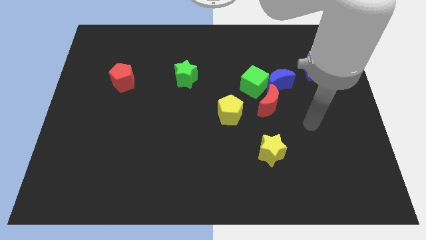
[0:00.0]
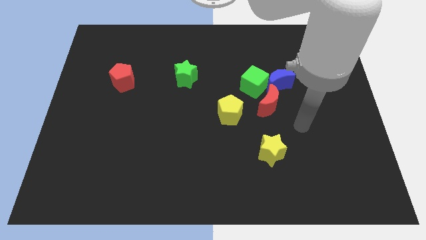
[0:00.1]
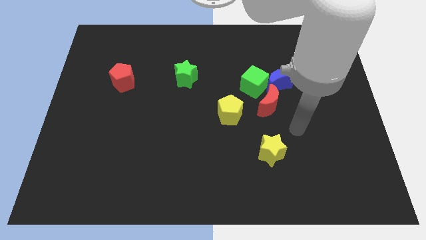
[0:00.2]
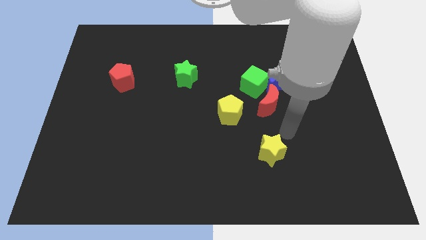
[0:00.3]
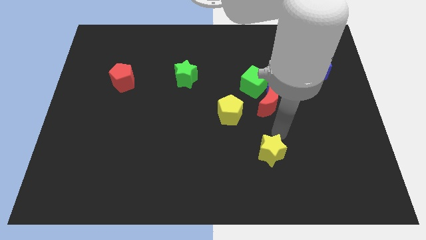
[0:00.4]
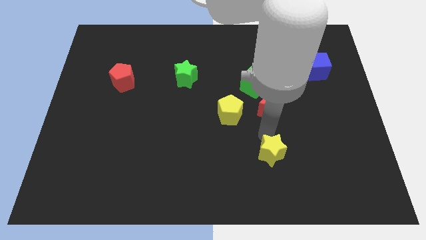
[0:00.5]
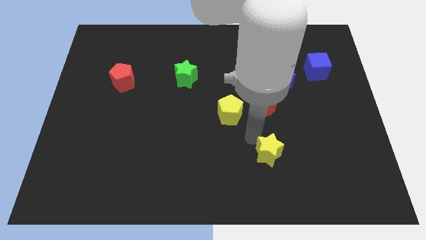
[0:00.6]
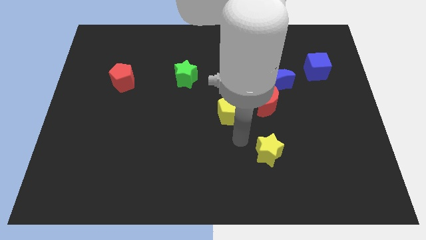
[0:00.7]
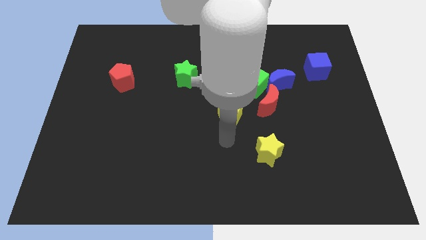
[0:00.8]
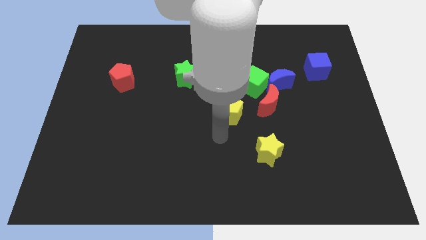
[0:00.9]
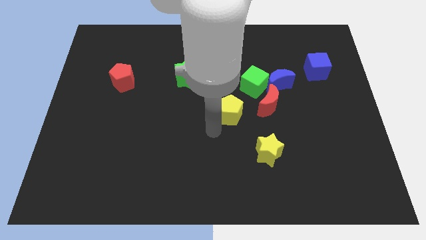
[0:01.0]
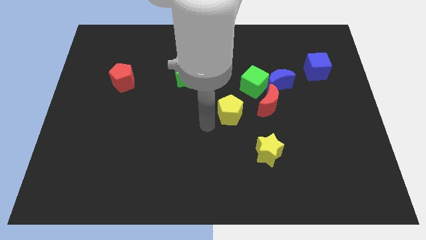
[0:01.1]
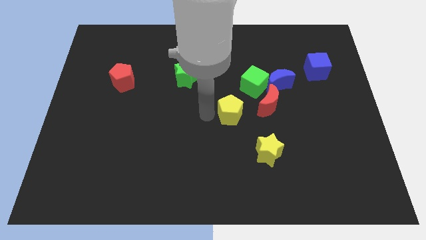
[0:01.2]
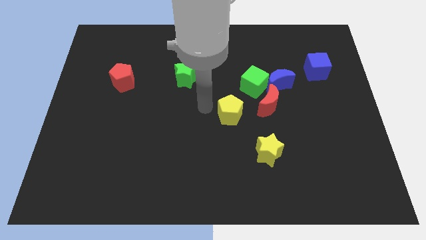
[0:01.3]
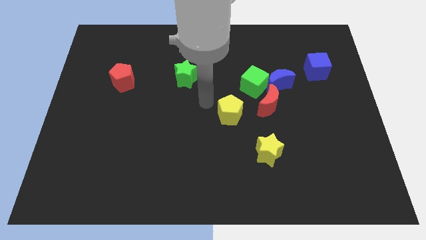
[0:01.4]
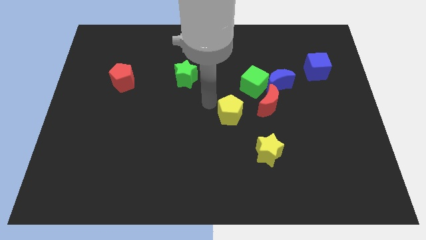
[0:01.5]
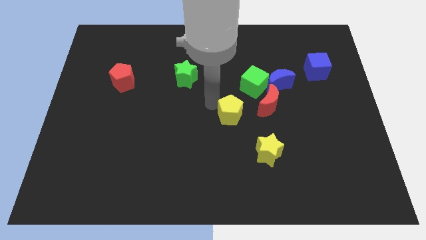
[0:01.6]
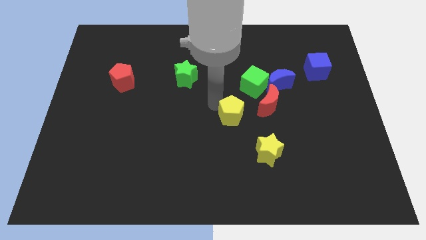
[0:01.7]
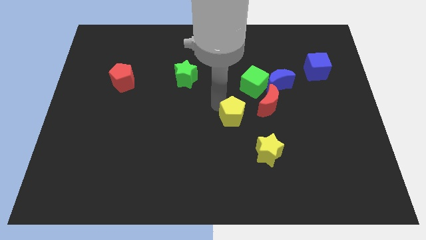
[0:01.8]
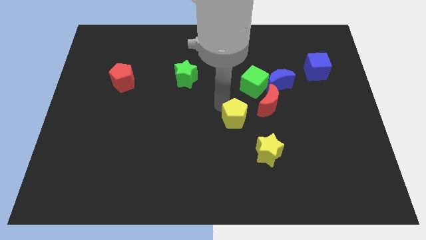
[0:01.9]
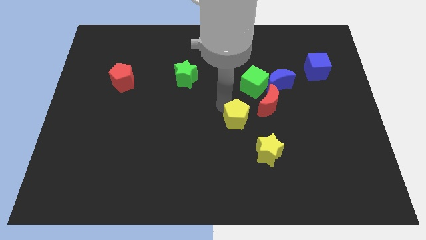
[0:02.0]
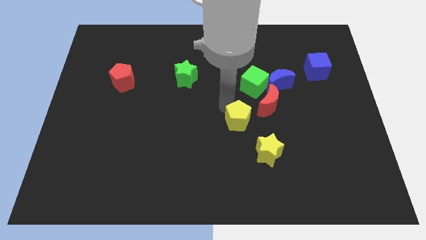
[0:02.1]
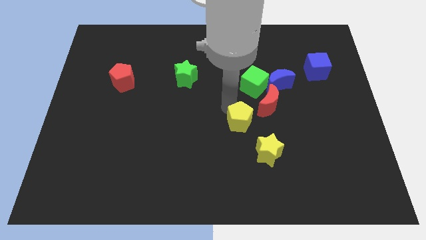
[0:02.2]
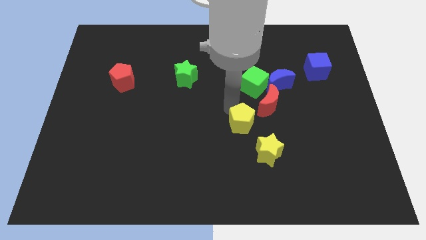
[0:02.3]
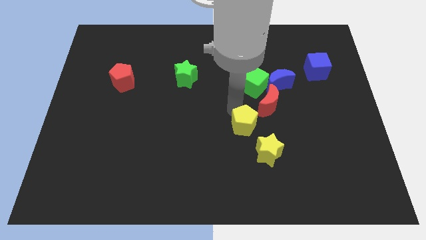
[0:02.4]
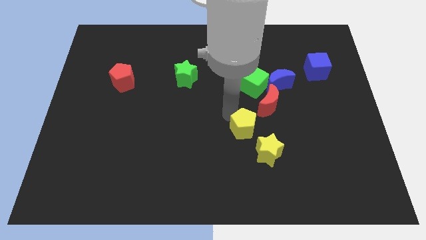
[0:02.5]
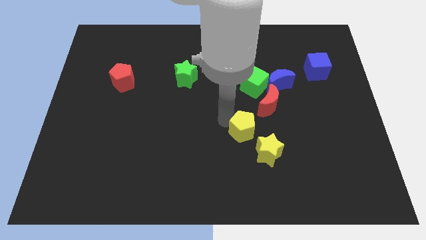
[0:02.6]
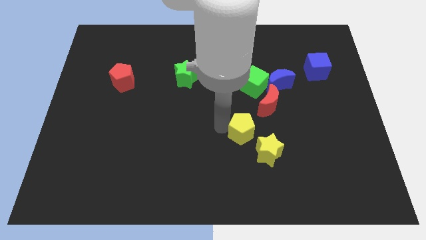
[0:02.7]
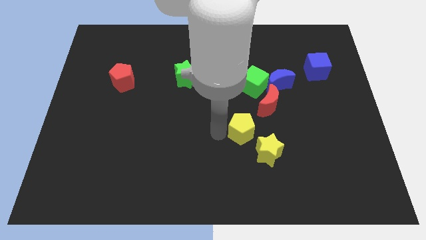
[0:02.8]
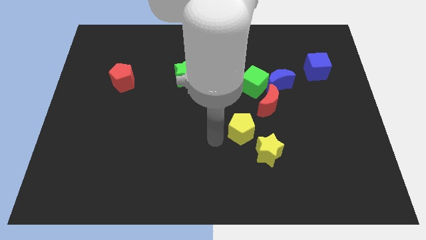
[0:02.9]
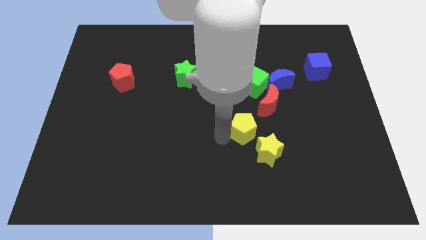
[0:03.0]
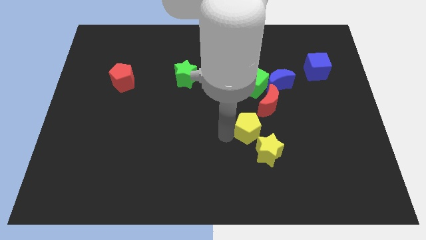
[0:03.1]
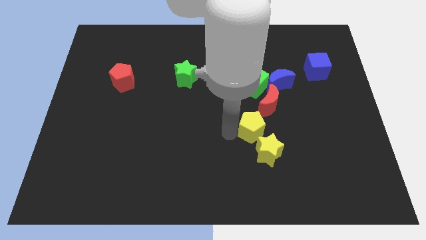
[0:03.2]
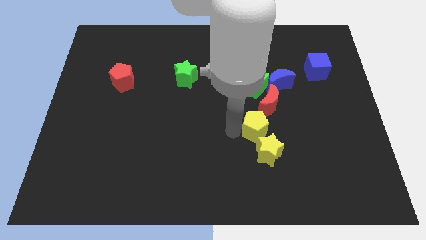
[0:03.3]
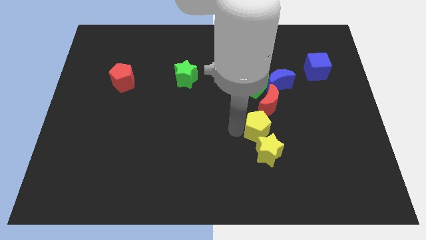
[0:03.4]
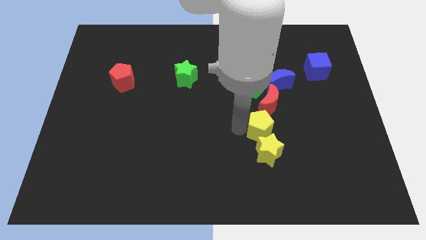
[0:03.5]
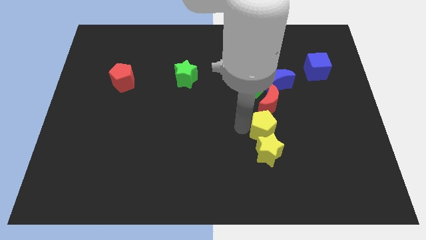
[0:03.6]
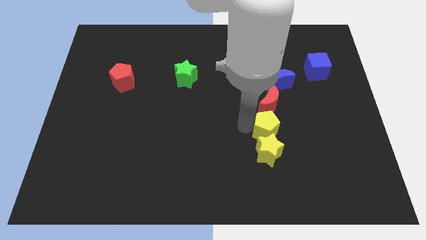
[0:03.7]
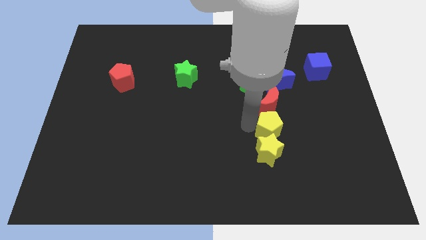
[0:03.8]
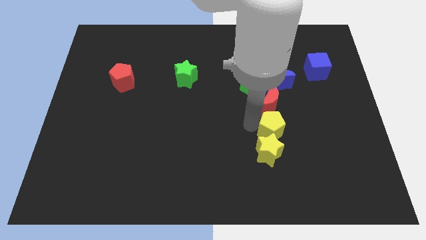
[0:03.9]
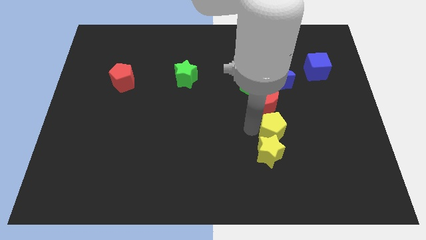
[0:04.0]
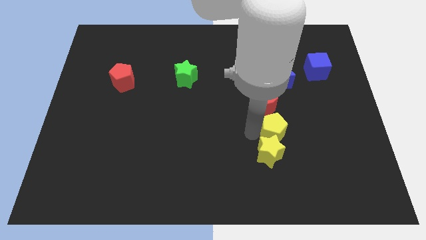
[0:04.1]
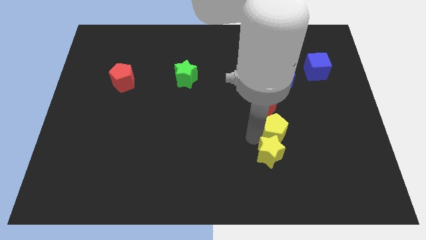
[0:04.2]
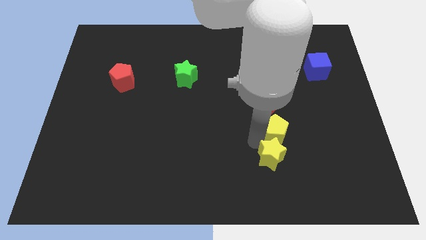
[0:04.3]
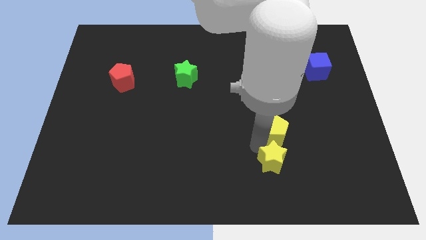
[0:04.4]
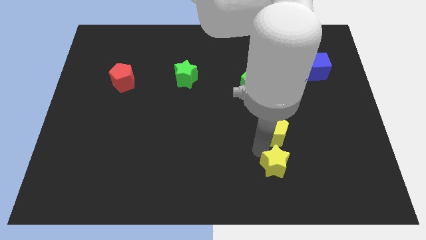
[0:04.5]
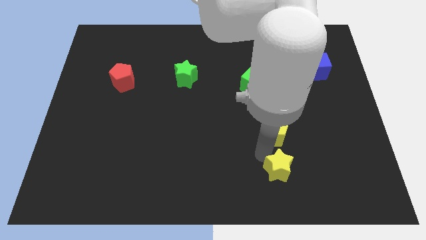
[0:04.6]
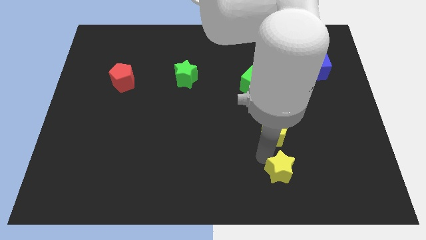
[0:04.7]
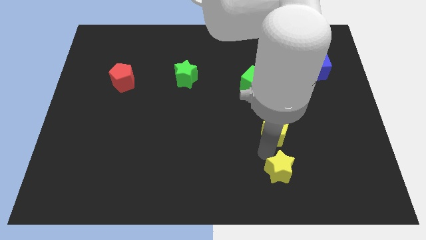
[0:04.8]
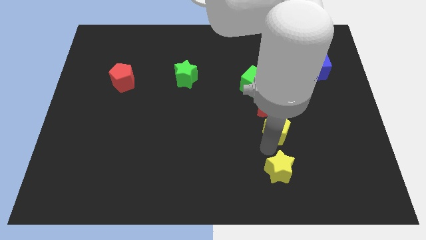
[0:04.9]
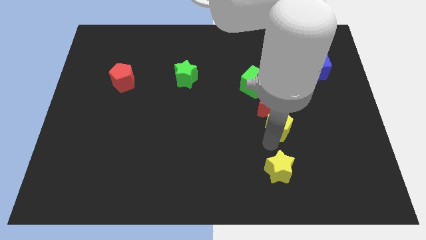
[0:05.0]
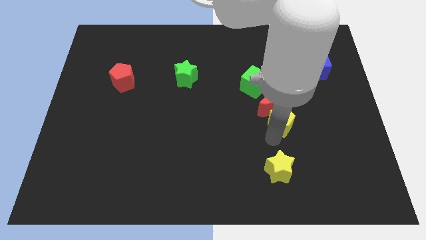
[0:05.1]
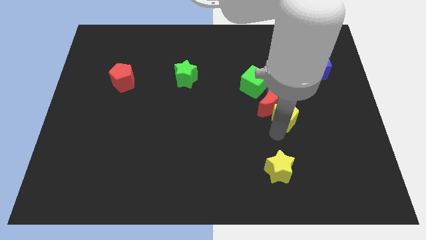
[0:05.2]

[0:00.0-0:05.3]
move the yellow pentagon to the bottom right side of the green cube

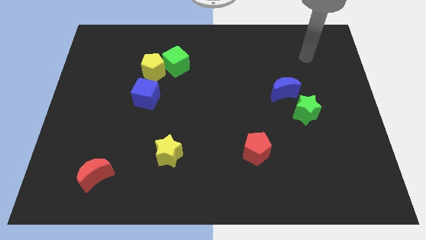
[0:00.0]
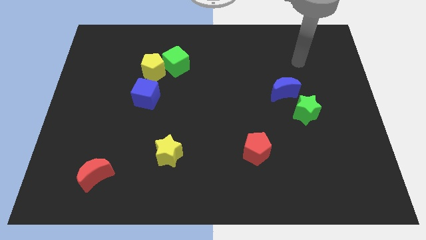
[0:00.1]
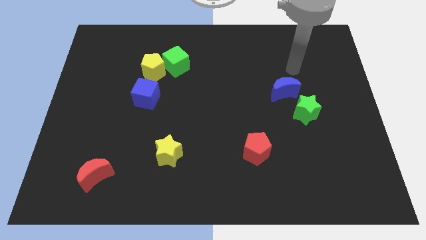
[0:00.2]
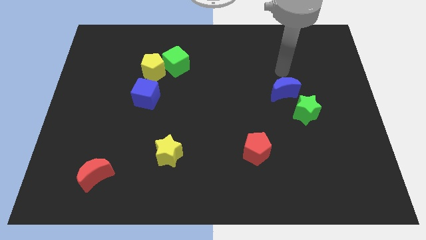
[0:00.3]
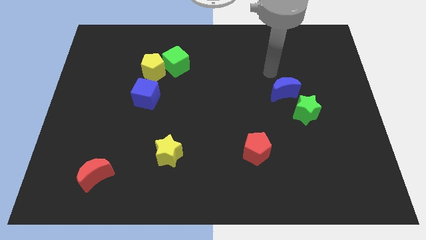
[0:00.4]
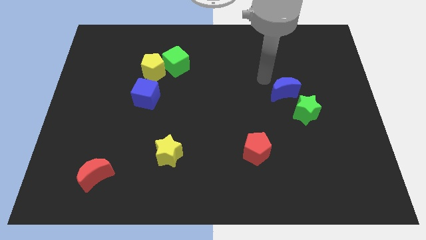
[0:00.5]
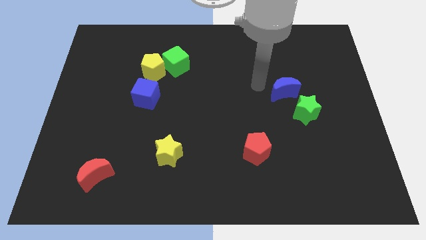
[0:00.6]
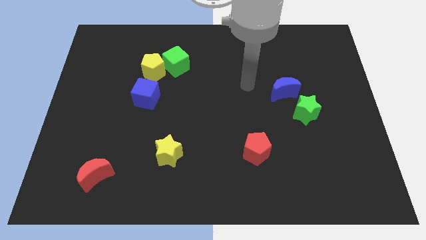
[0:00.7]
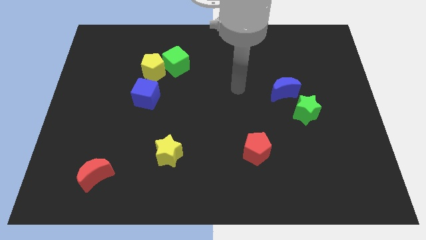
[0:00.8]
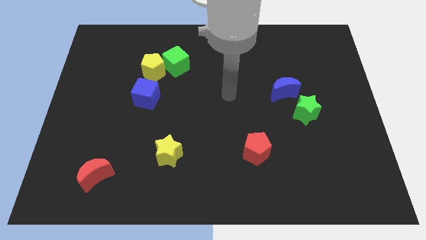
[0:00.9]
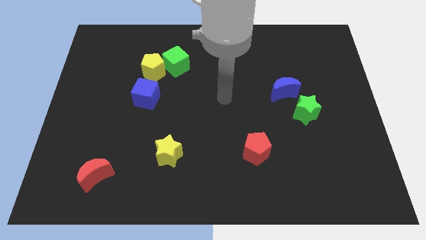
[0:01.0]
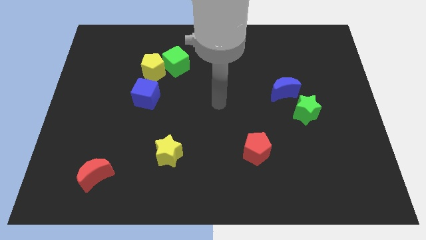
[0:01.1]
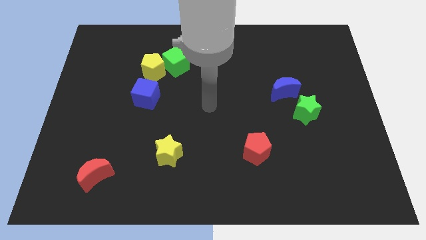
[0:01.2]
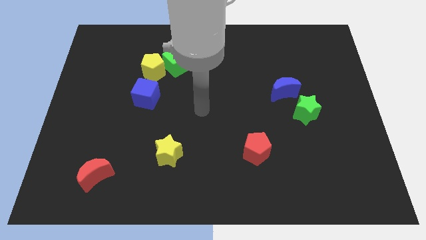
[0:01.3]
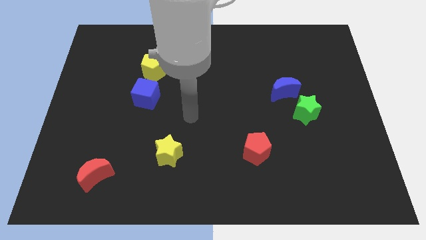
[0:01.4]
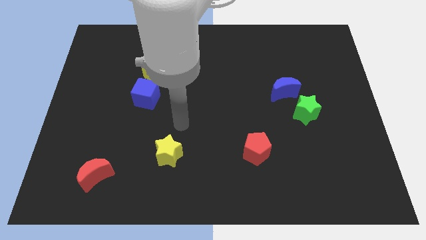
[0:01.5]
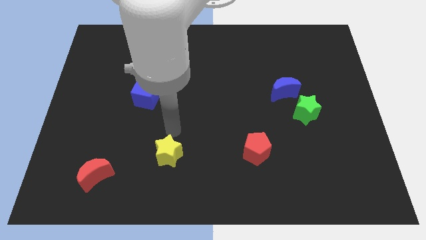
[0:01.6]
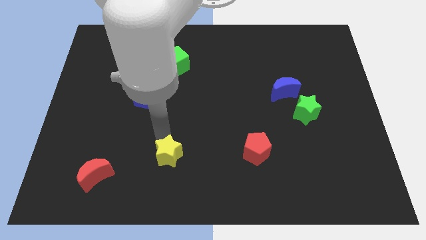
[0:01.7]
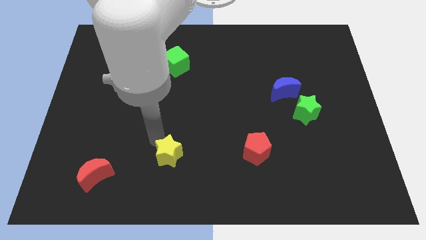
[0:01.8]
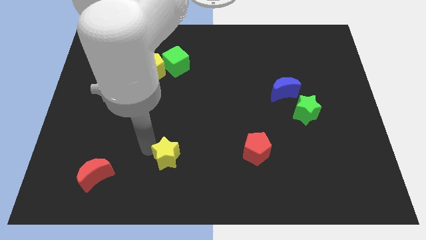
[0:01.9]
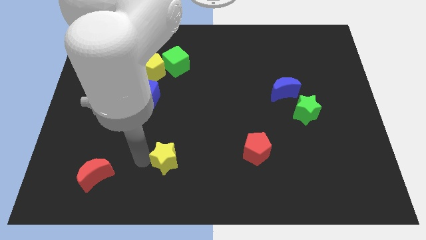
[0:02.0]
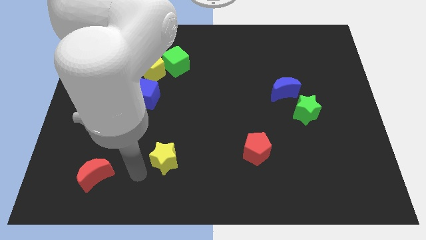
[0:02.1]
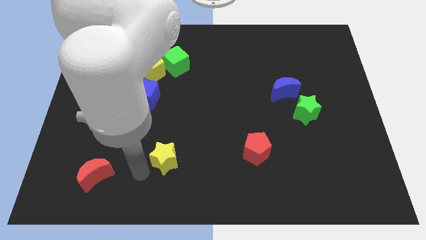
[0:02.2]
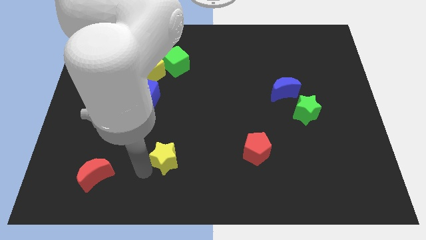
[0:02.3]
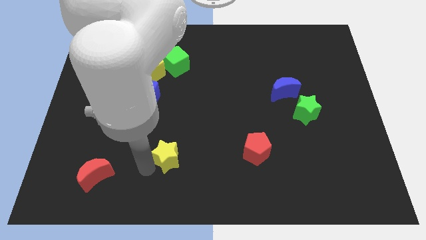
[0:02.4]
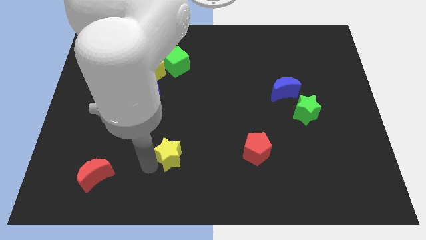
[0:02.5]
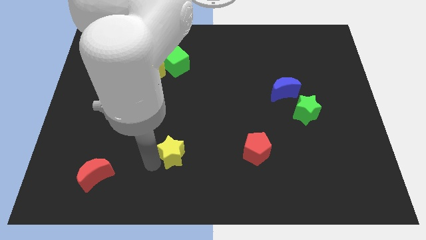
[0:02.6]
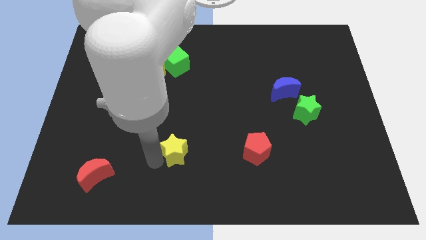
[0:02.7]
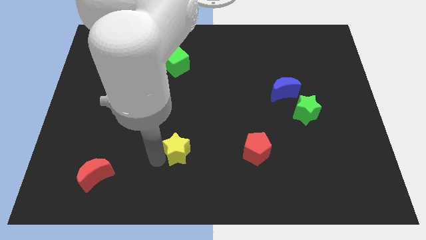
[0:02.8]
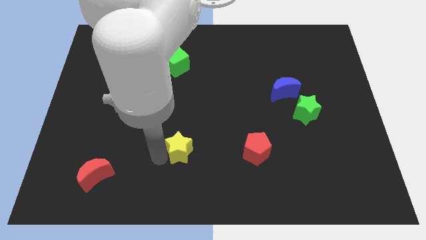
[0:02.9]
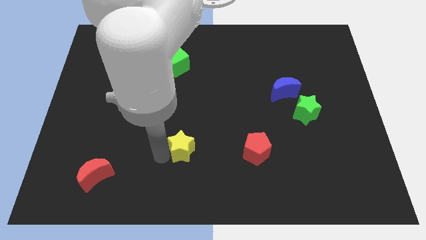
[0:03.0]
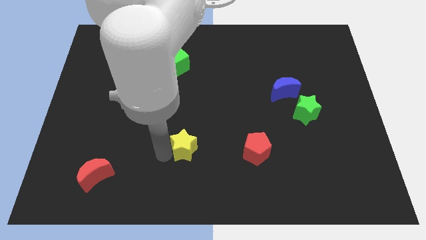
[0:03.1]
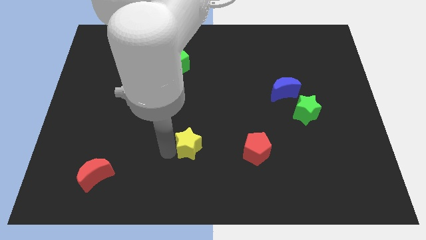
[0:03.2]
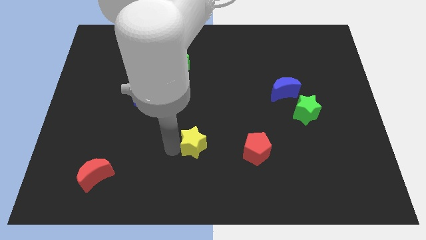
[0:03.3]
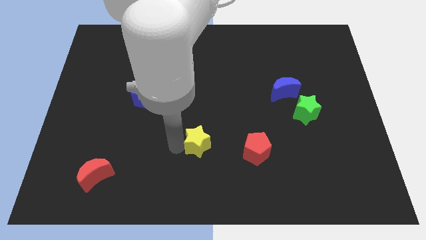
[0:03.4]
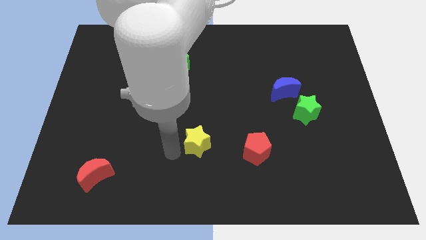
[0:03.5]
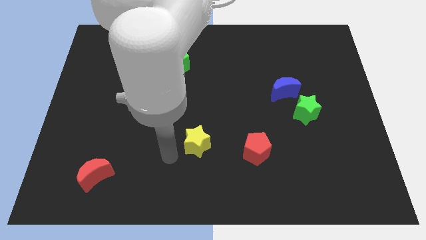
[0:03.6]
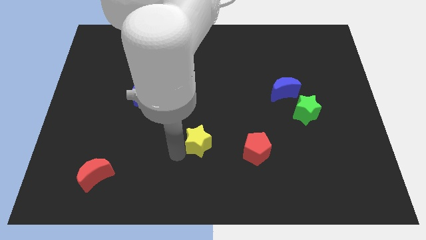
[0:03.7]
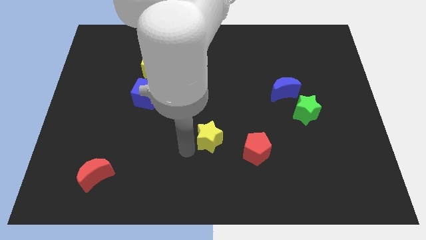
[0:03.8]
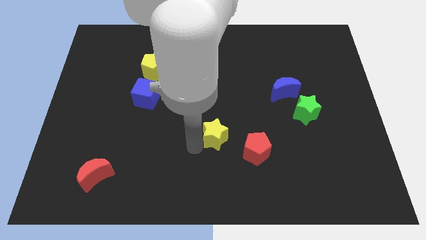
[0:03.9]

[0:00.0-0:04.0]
move the yellow star diagonally up and to the left of the red pentagon
